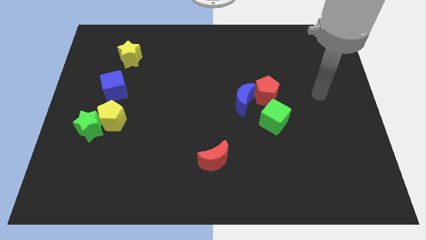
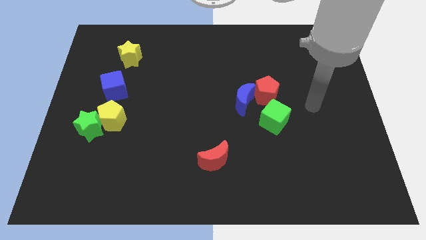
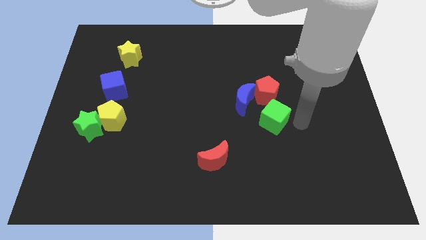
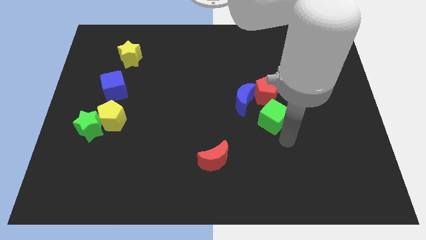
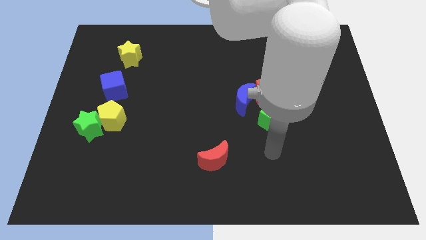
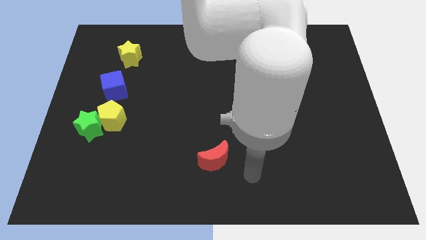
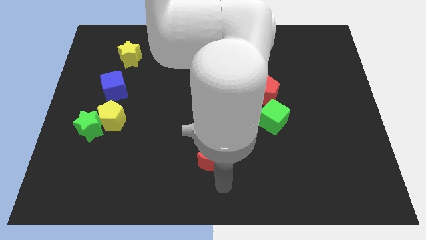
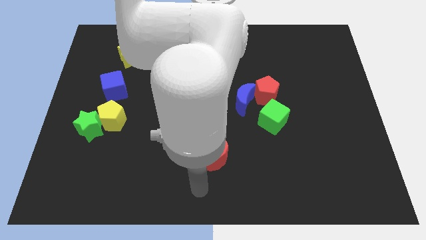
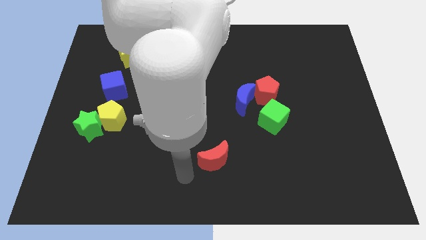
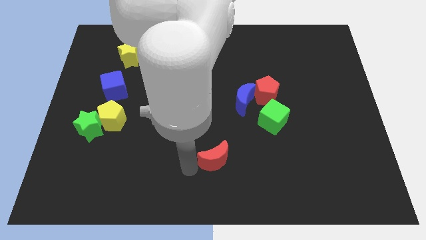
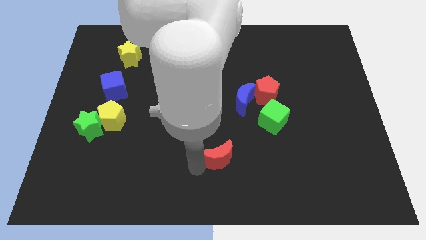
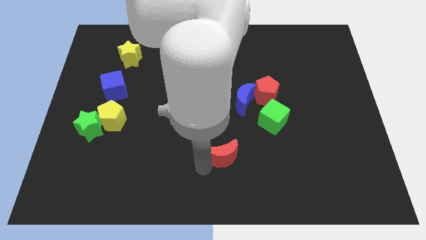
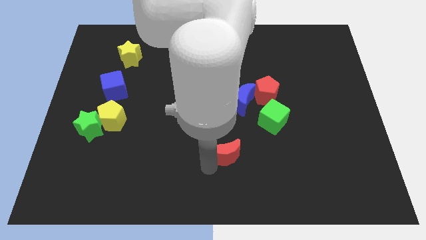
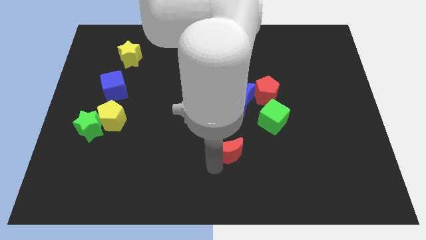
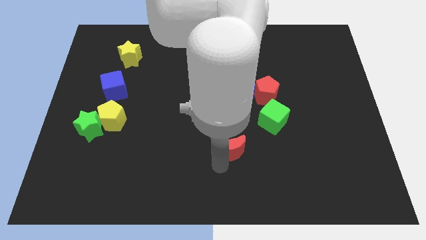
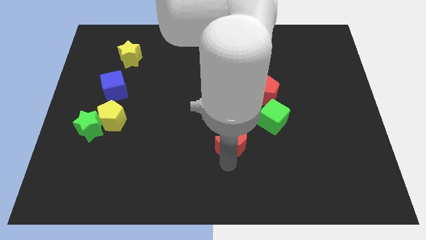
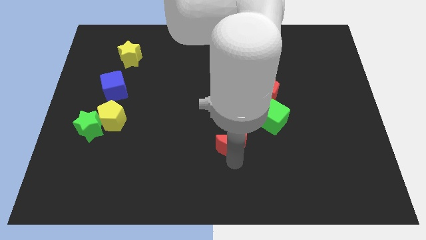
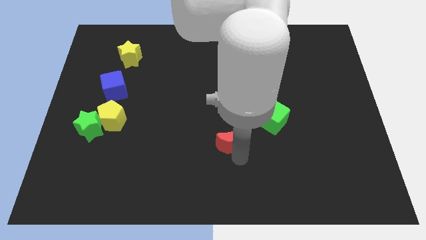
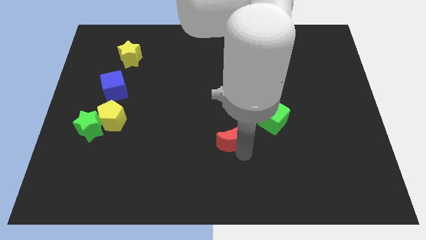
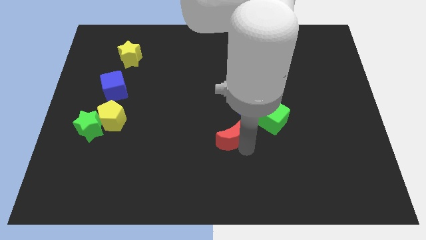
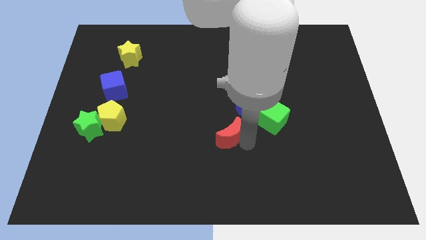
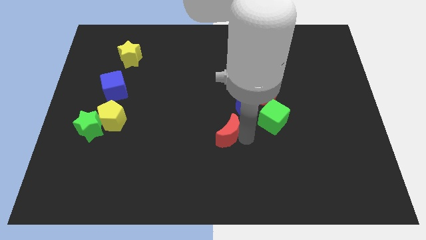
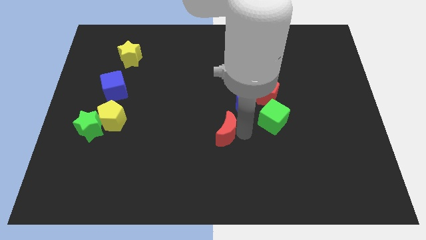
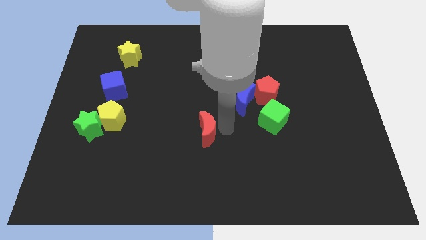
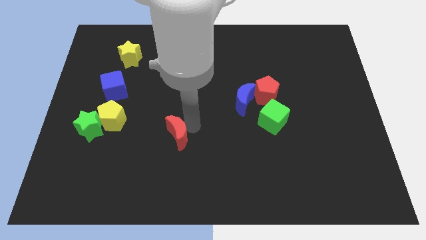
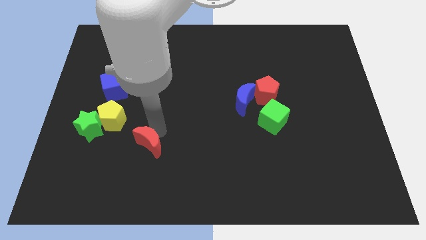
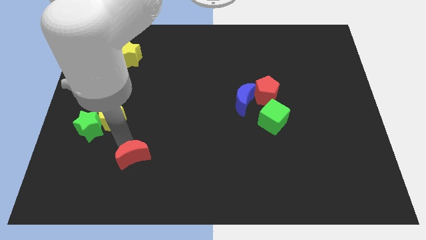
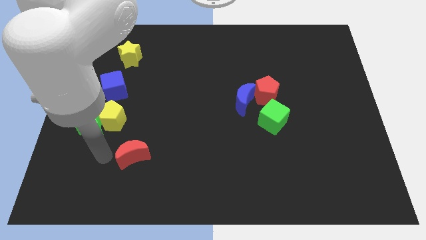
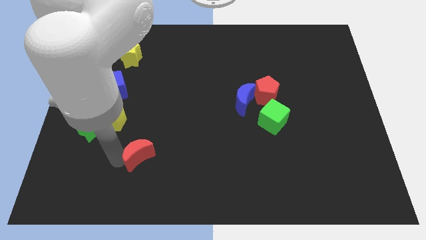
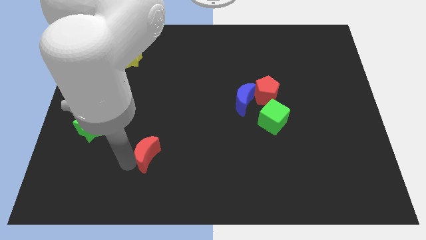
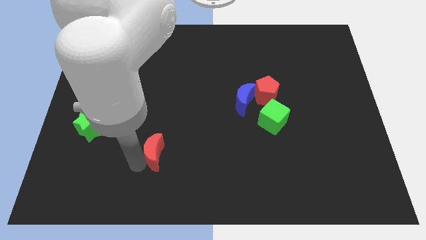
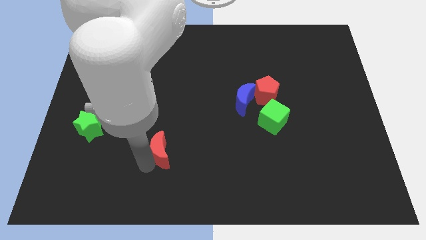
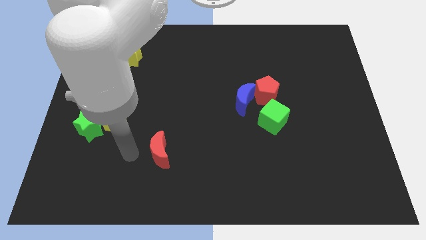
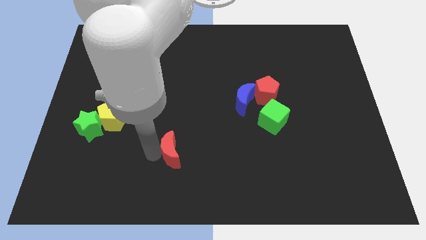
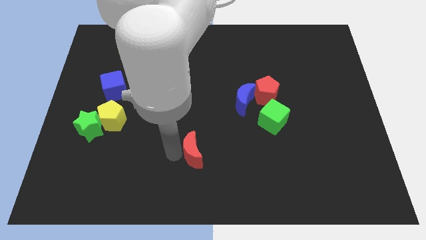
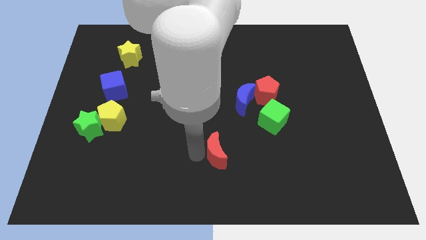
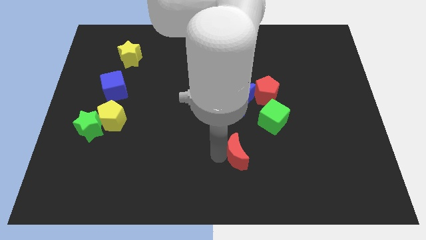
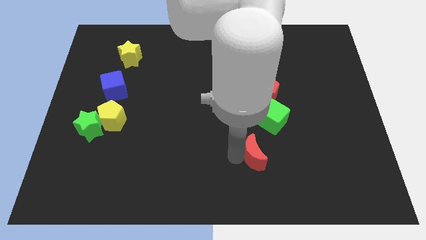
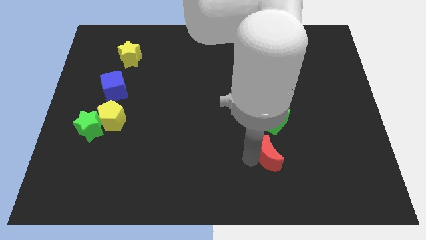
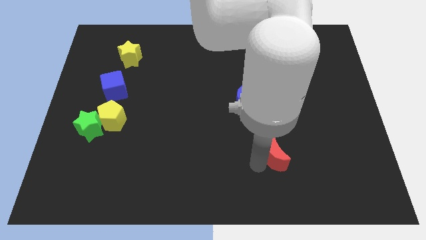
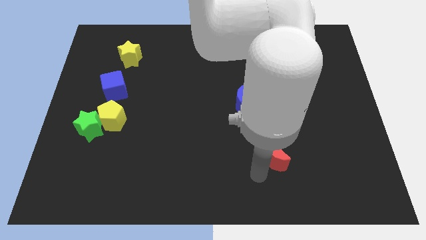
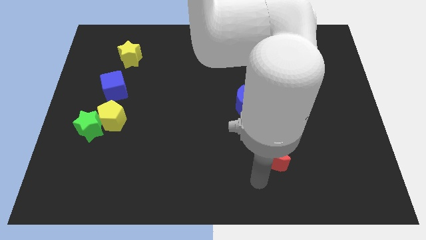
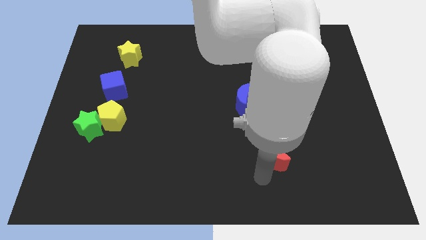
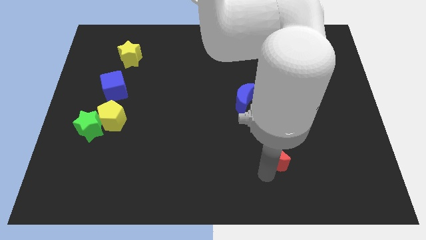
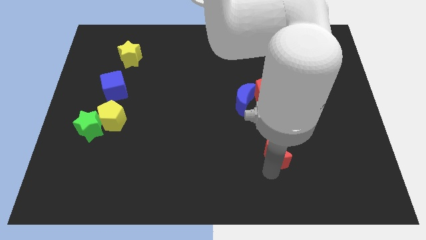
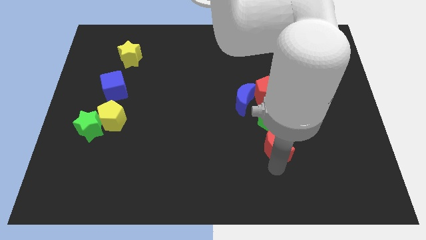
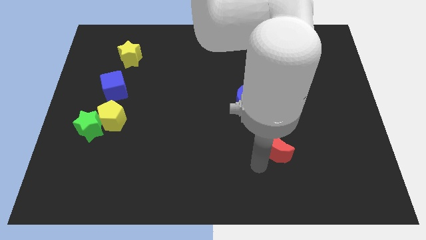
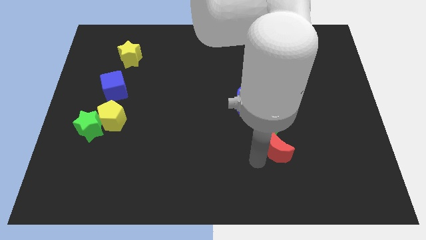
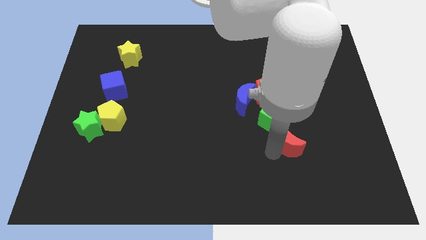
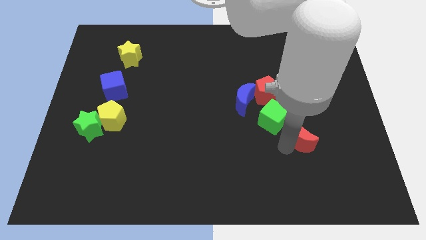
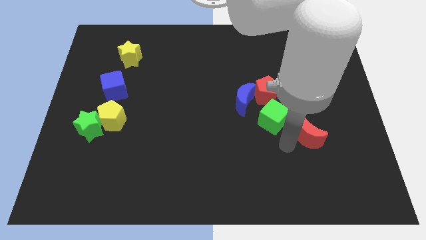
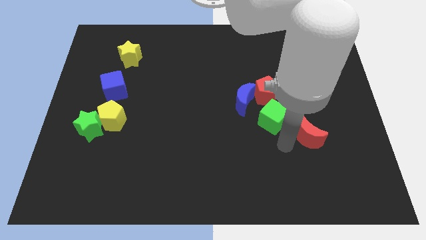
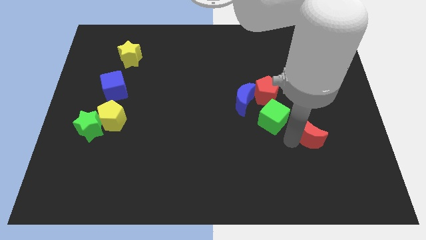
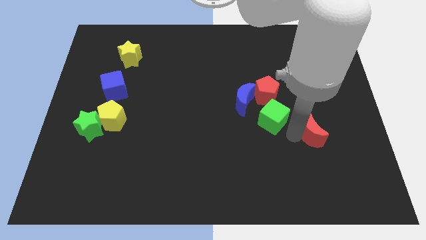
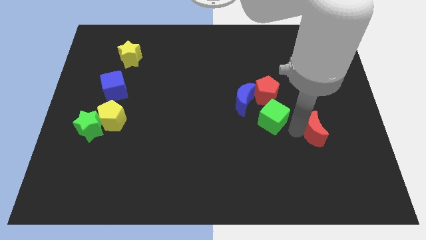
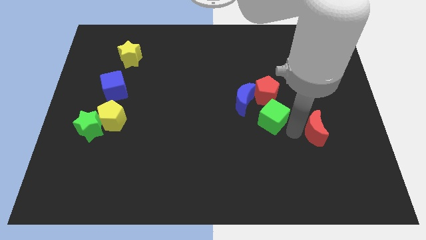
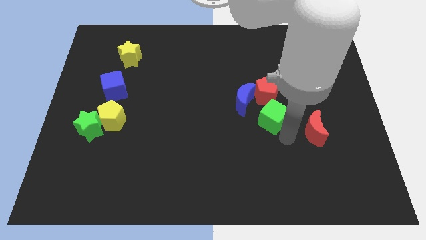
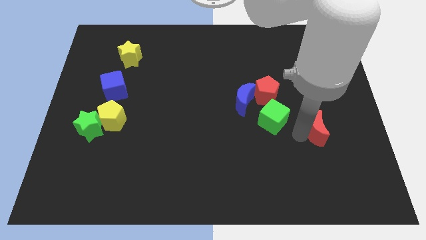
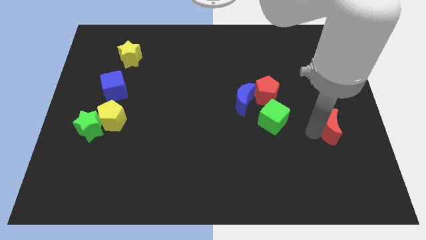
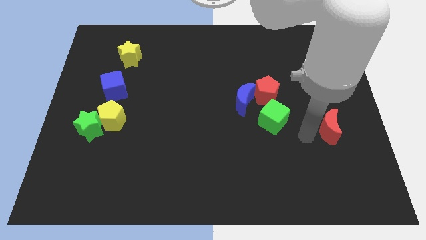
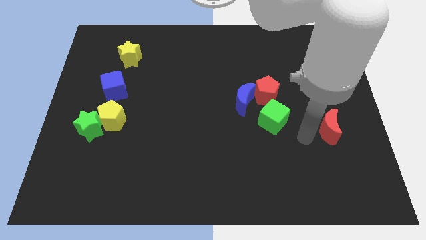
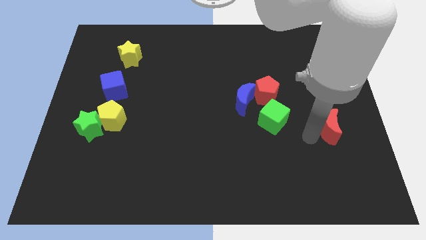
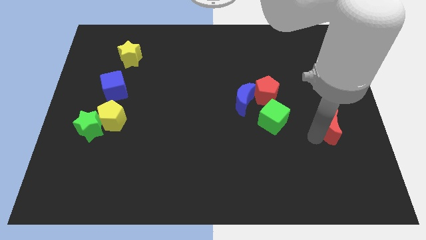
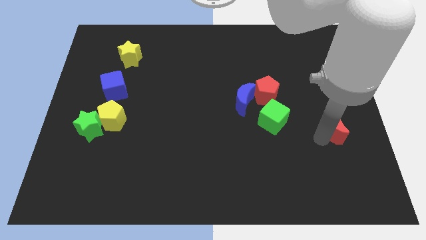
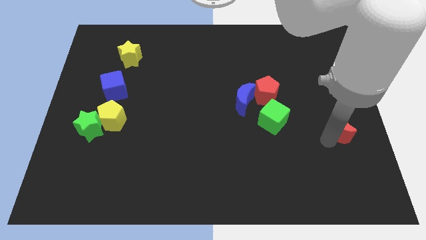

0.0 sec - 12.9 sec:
slide the red moon to the right side of the board
